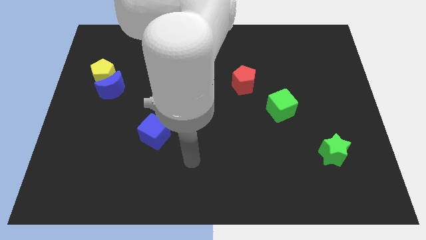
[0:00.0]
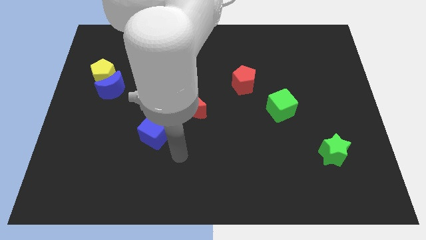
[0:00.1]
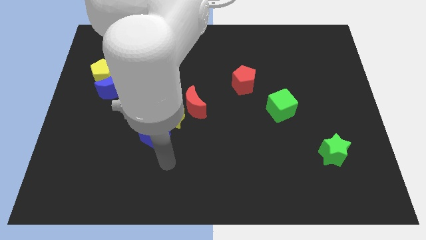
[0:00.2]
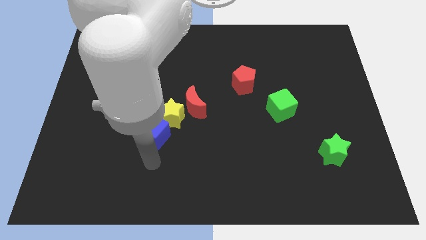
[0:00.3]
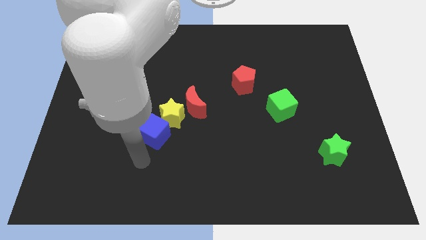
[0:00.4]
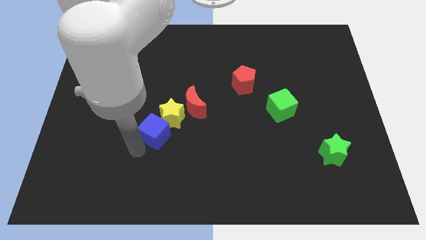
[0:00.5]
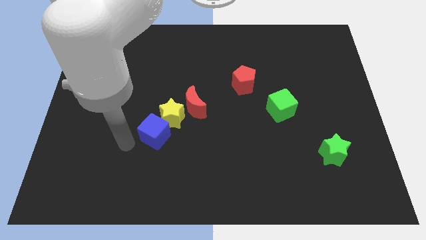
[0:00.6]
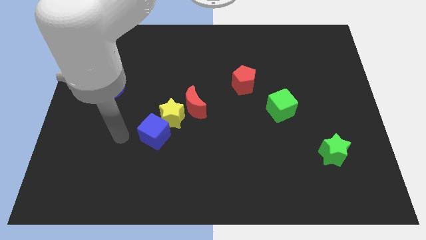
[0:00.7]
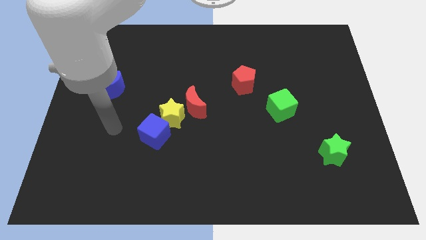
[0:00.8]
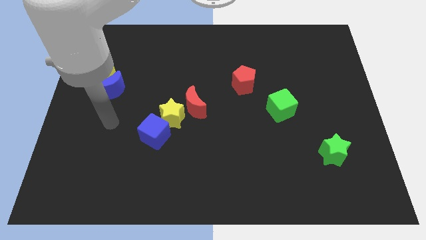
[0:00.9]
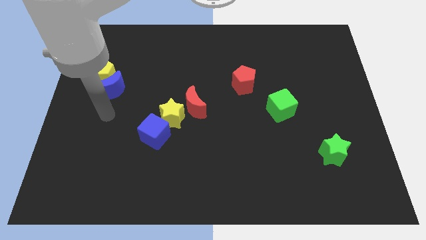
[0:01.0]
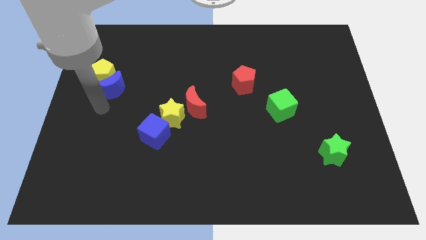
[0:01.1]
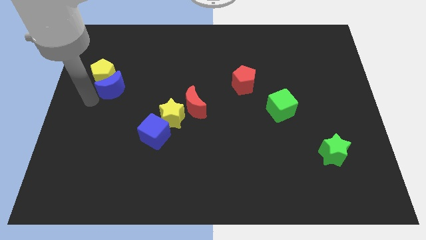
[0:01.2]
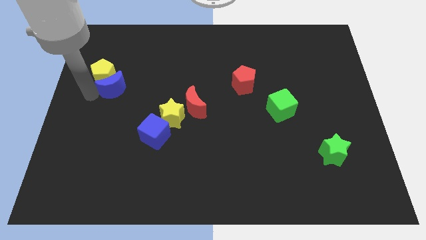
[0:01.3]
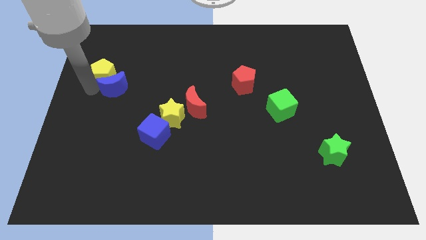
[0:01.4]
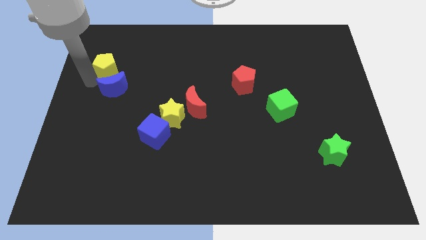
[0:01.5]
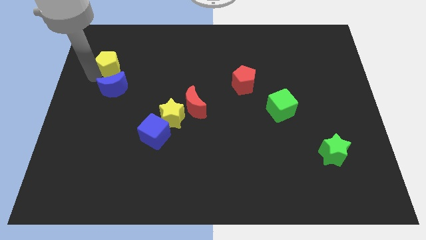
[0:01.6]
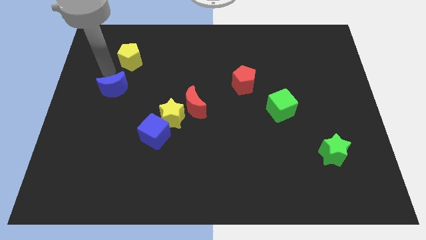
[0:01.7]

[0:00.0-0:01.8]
move the blue moon away from the yellow pentagon

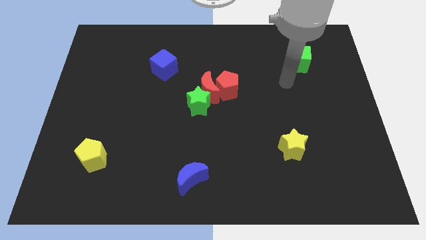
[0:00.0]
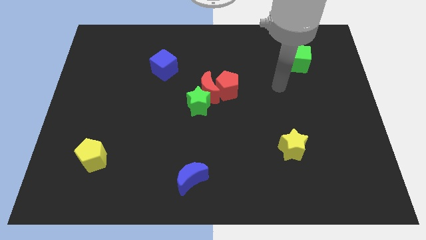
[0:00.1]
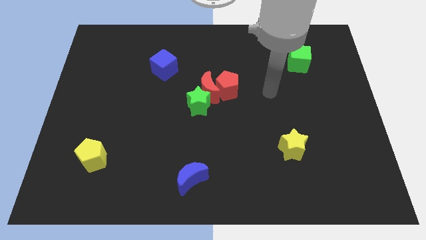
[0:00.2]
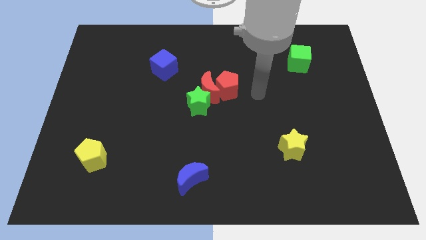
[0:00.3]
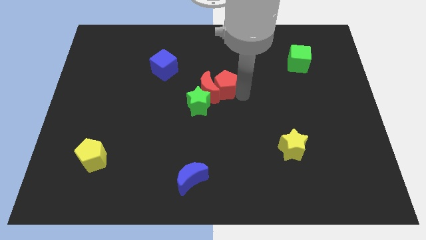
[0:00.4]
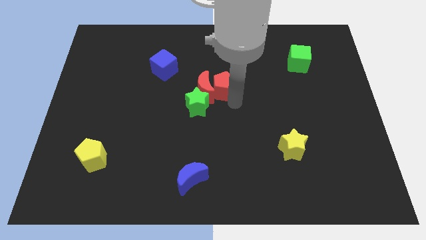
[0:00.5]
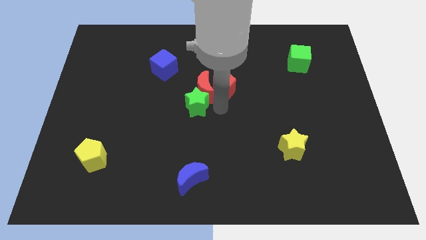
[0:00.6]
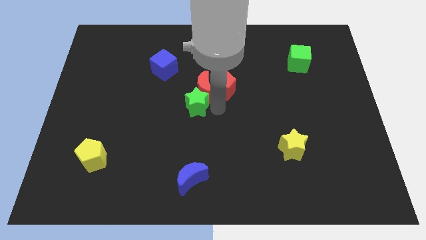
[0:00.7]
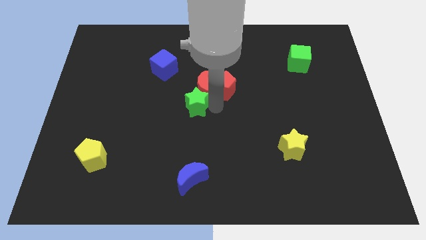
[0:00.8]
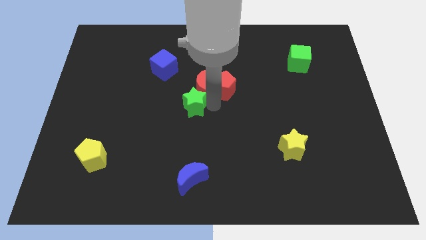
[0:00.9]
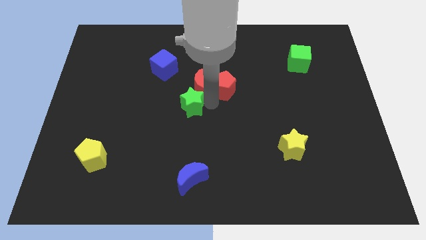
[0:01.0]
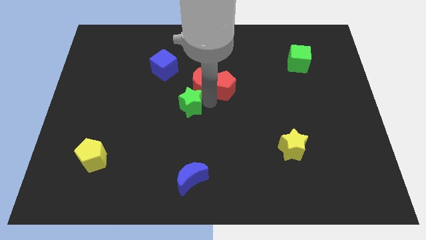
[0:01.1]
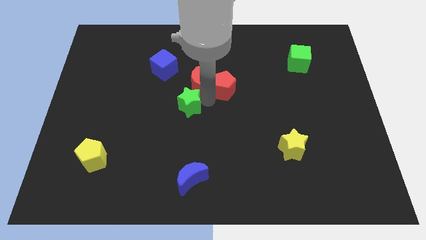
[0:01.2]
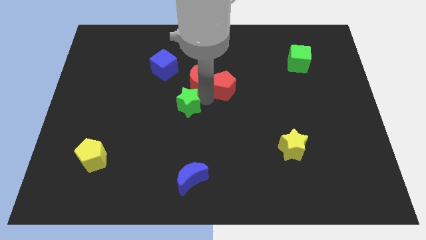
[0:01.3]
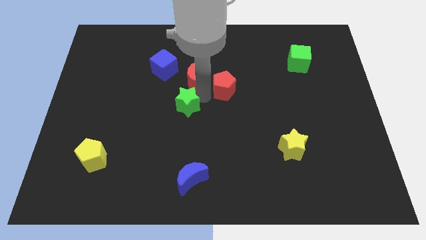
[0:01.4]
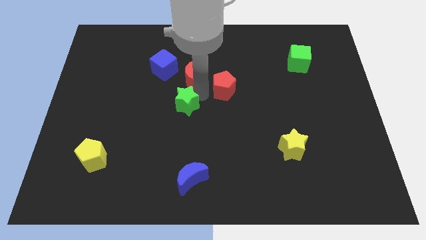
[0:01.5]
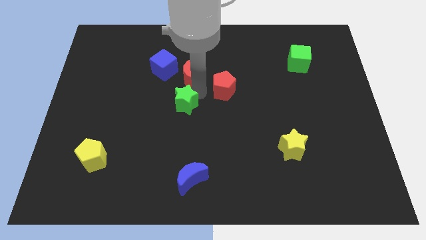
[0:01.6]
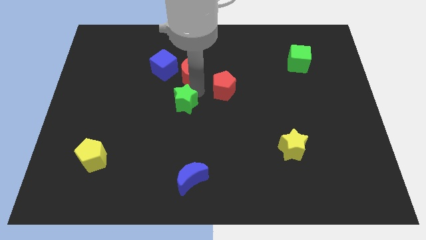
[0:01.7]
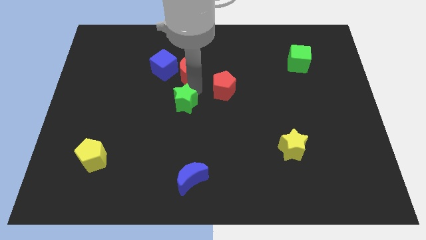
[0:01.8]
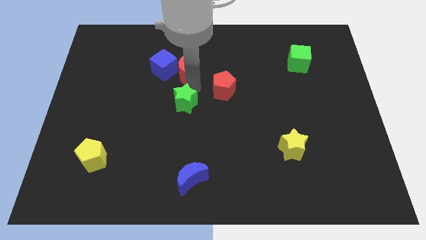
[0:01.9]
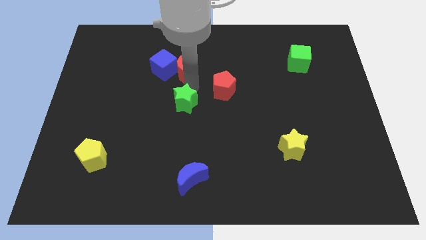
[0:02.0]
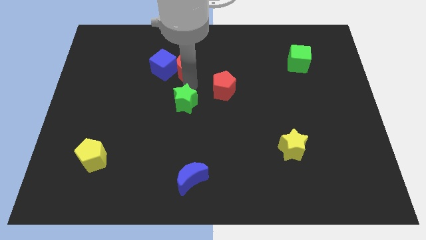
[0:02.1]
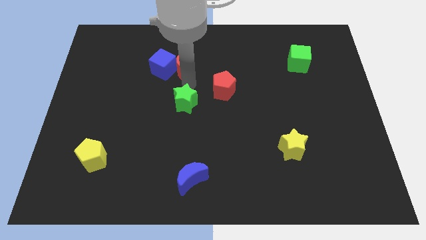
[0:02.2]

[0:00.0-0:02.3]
pull the red moon apart from the green star and red pentagon

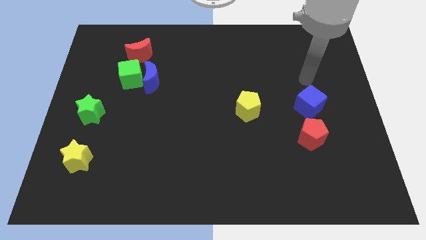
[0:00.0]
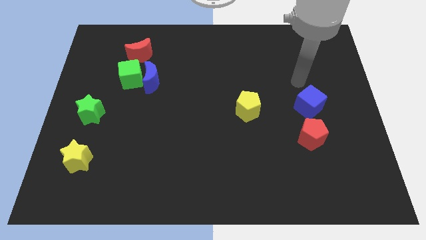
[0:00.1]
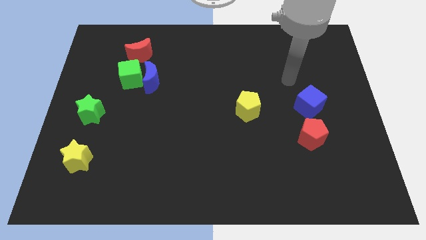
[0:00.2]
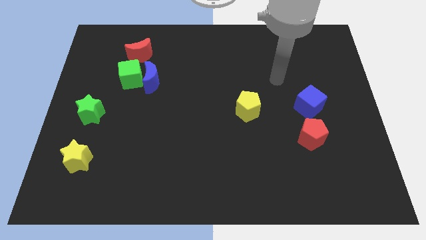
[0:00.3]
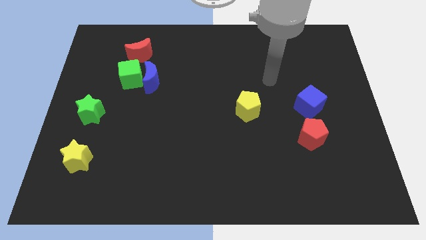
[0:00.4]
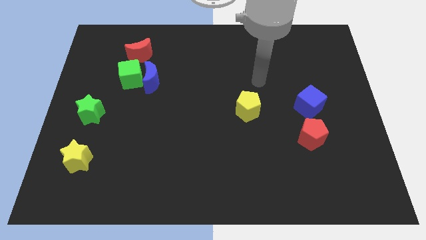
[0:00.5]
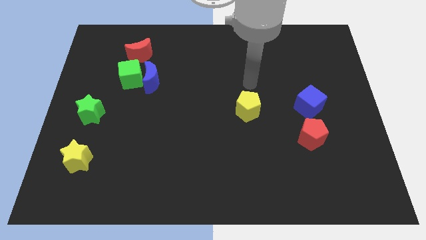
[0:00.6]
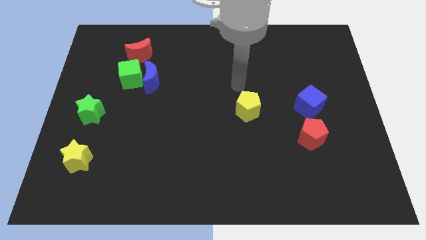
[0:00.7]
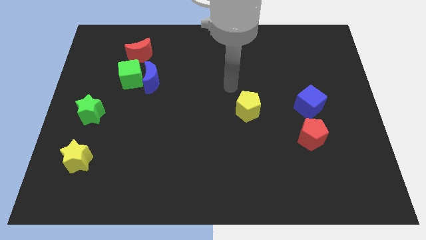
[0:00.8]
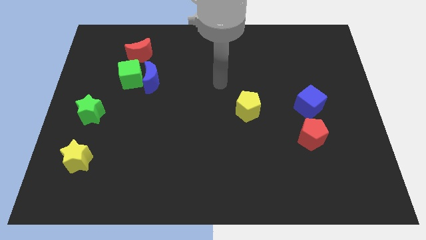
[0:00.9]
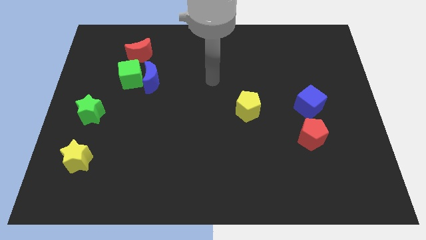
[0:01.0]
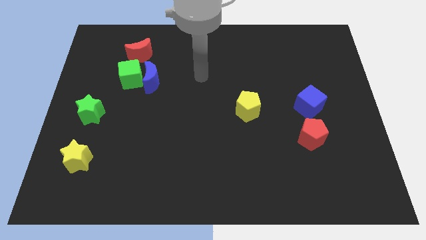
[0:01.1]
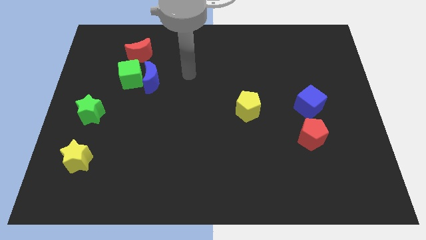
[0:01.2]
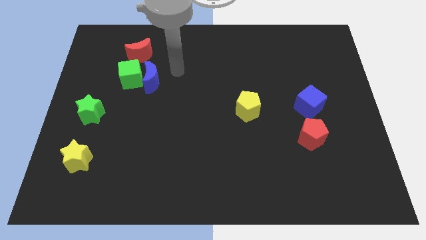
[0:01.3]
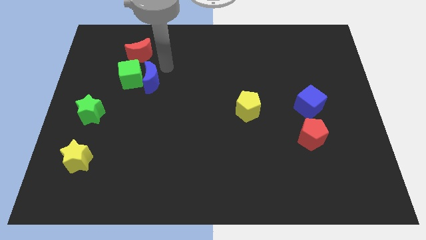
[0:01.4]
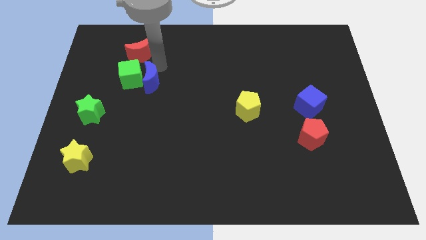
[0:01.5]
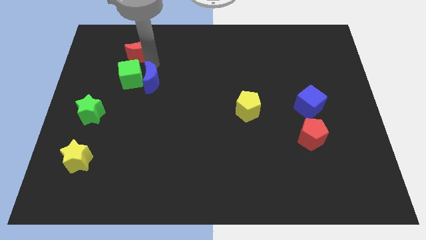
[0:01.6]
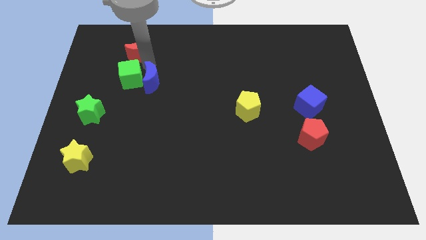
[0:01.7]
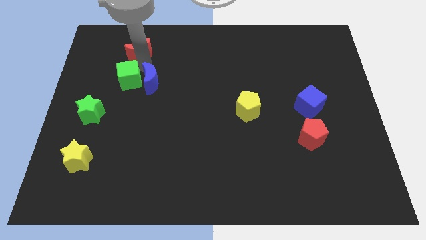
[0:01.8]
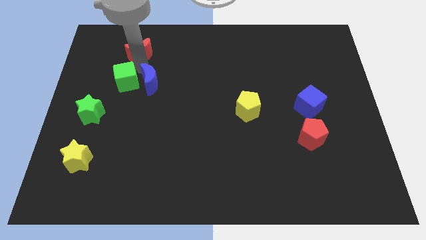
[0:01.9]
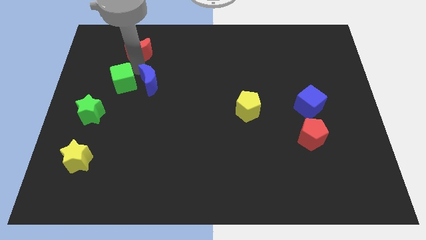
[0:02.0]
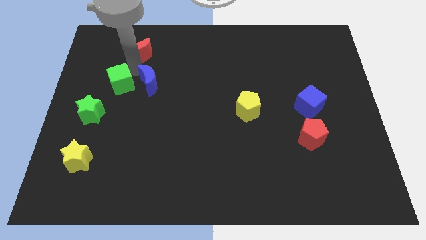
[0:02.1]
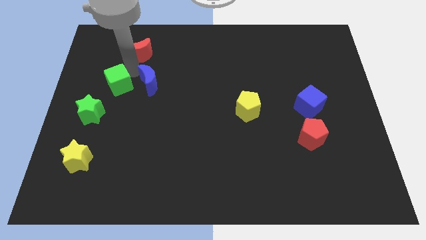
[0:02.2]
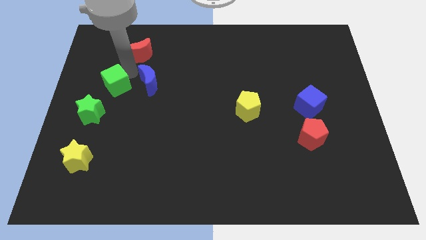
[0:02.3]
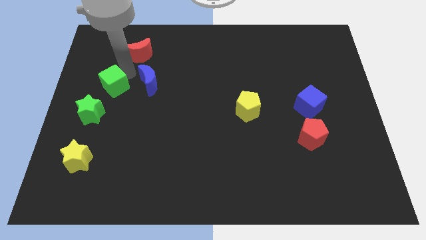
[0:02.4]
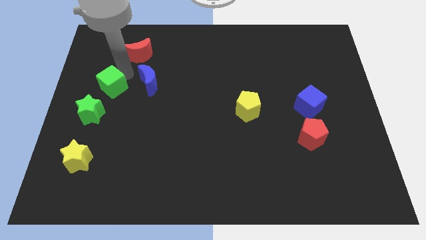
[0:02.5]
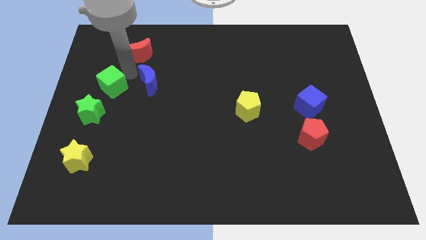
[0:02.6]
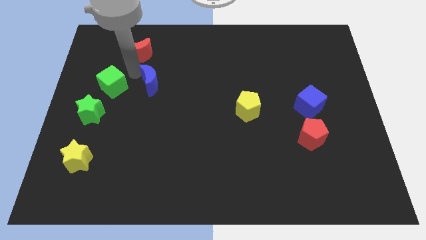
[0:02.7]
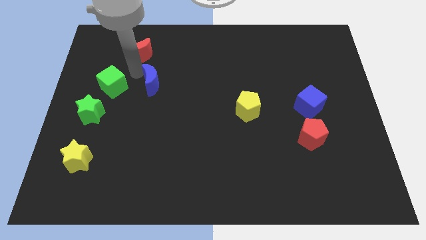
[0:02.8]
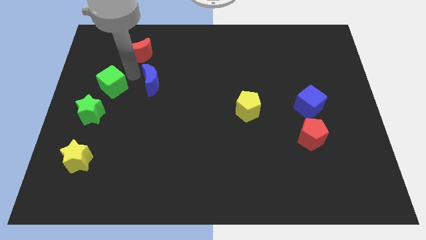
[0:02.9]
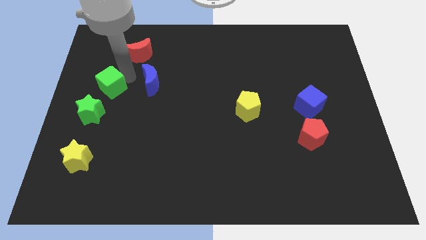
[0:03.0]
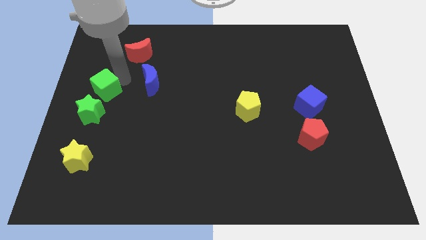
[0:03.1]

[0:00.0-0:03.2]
separate the green cube from the blue moon and red moon

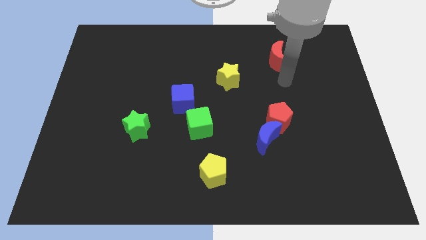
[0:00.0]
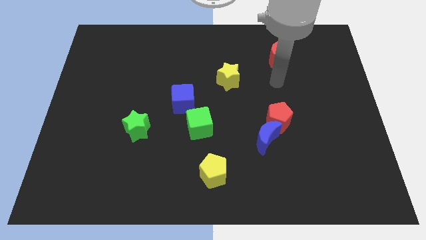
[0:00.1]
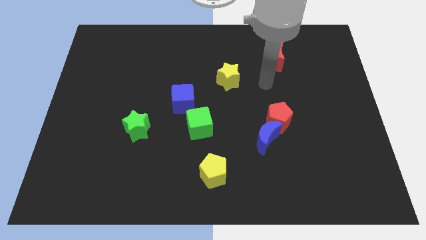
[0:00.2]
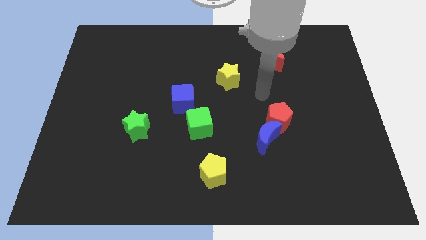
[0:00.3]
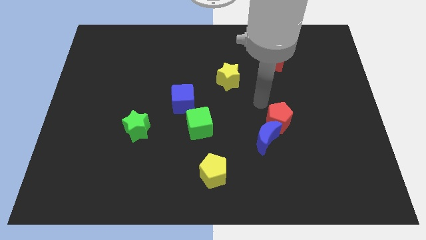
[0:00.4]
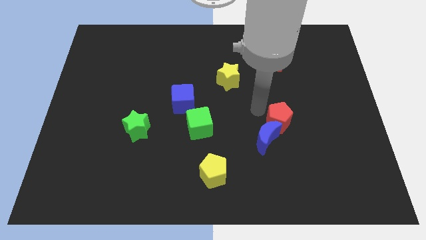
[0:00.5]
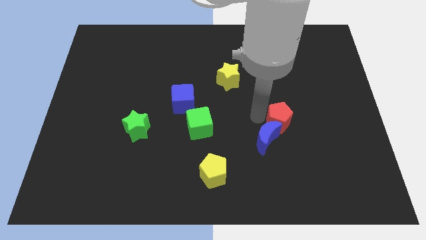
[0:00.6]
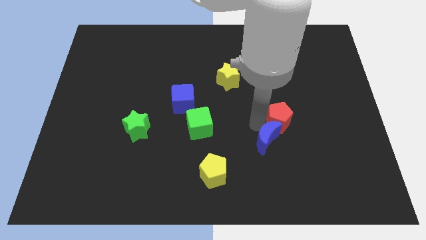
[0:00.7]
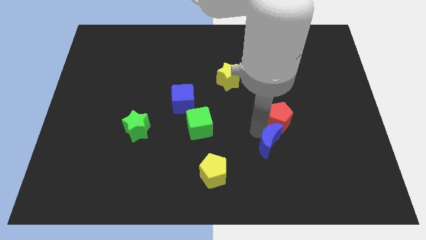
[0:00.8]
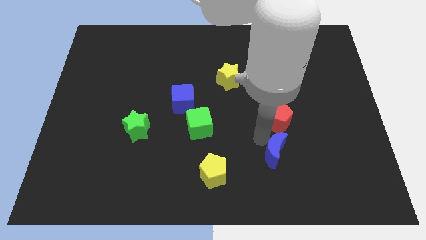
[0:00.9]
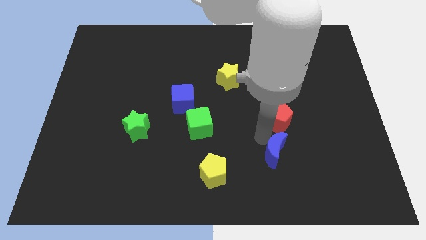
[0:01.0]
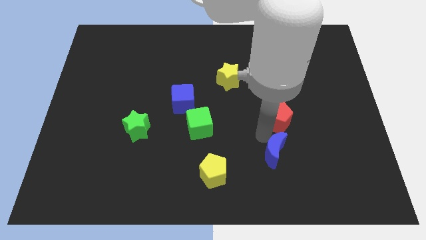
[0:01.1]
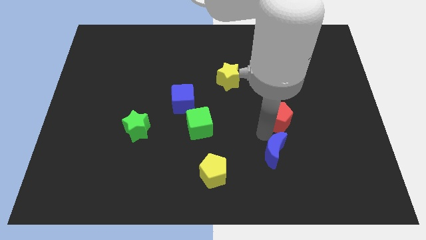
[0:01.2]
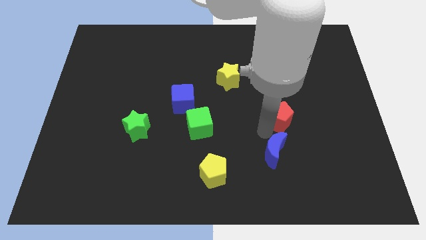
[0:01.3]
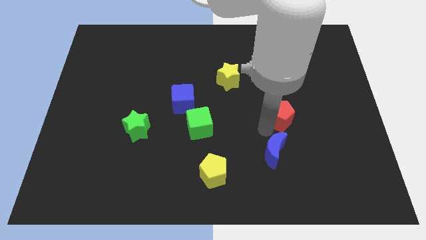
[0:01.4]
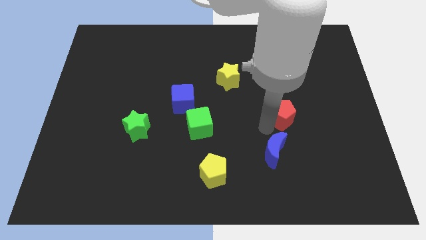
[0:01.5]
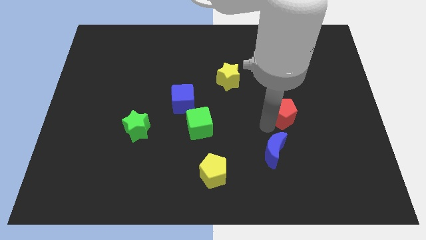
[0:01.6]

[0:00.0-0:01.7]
pull the red pentagon apart from the blue moon

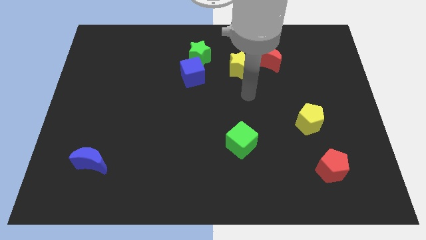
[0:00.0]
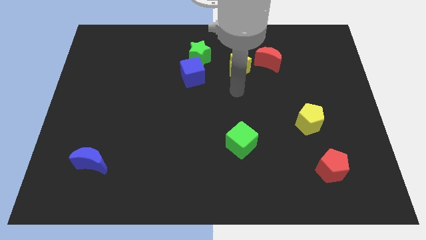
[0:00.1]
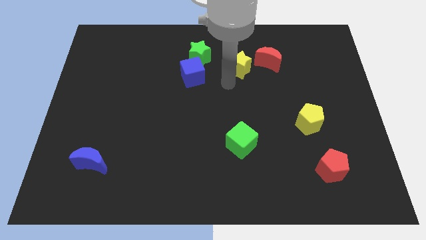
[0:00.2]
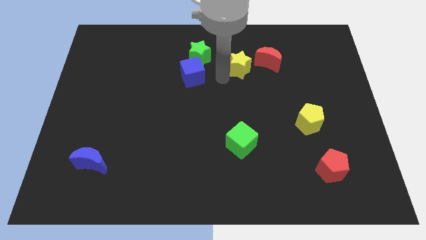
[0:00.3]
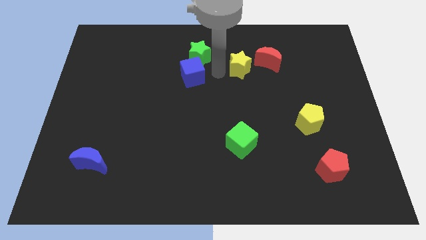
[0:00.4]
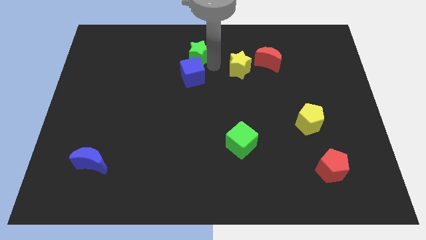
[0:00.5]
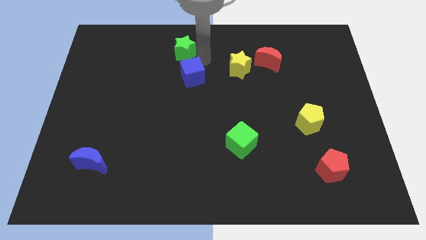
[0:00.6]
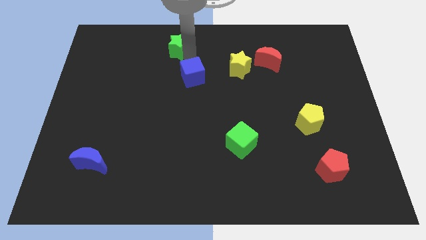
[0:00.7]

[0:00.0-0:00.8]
separate the blue cube from the green star
